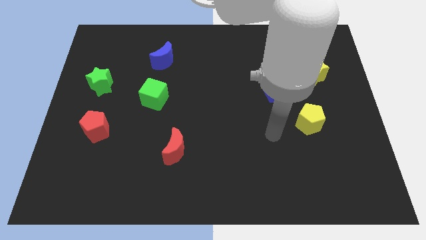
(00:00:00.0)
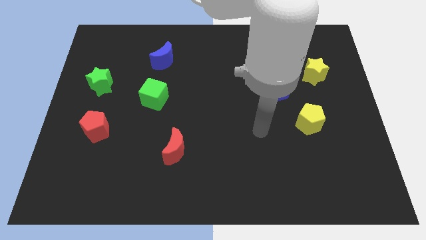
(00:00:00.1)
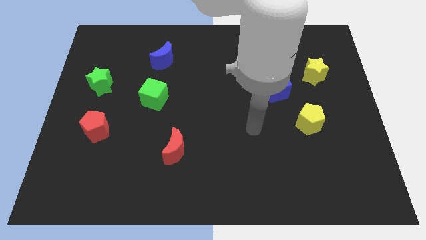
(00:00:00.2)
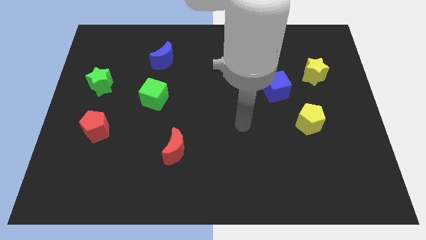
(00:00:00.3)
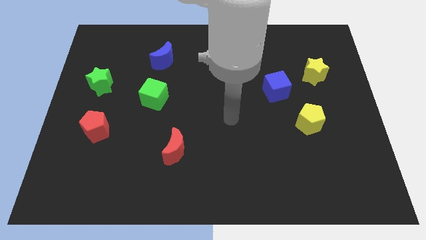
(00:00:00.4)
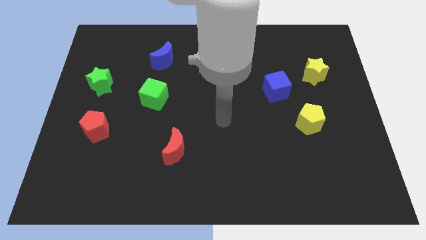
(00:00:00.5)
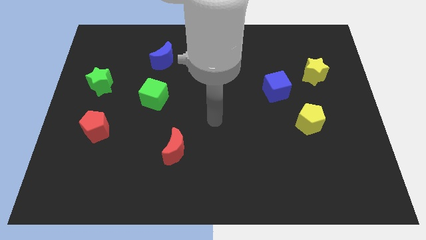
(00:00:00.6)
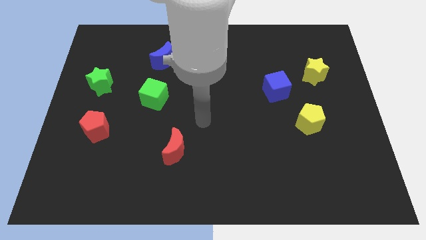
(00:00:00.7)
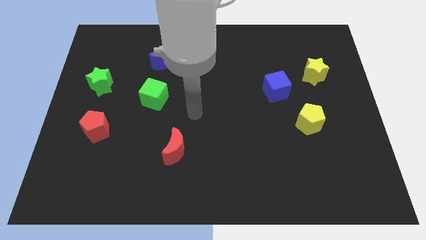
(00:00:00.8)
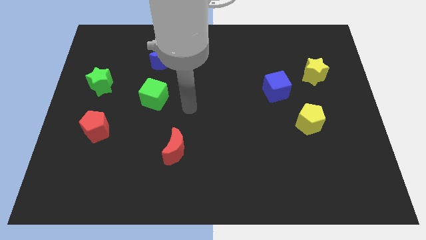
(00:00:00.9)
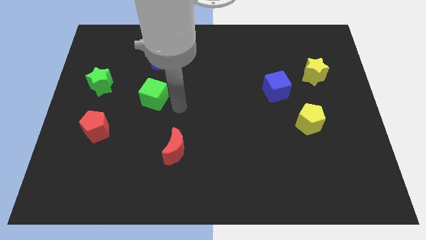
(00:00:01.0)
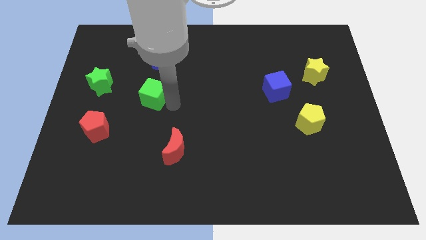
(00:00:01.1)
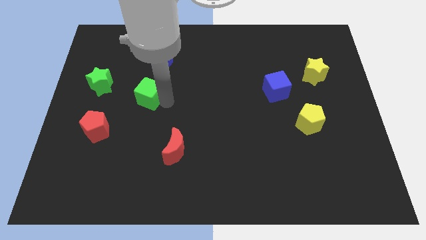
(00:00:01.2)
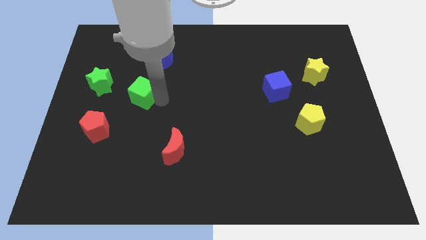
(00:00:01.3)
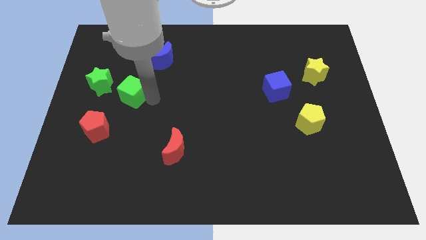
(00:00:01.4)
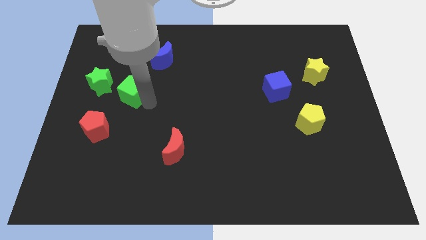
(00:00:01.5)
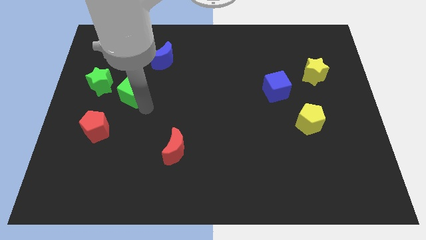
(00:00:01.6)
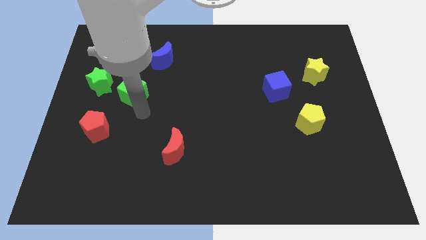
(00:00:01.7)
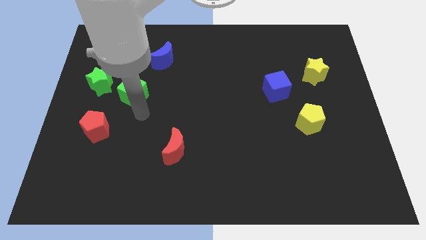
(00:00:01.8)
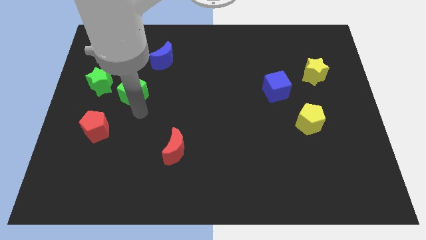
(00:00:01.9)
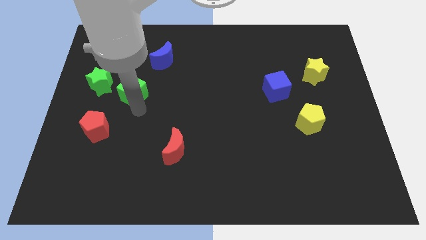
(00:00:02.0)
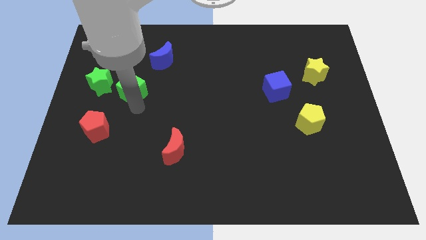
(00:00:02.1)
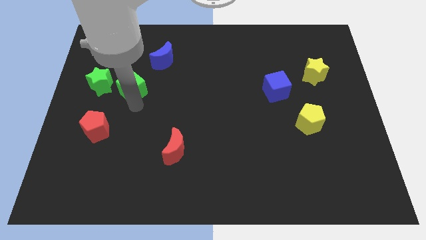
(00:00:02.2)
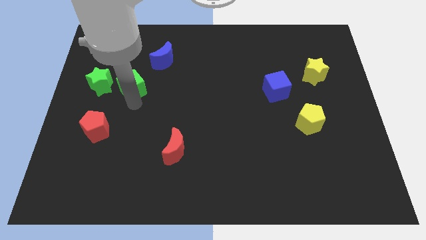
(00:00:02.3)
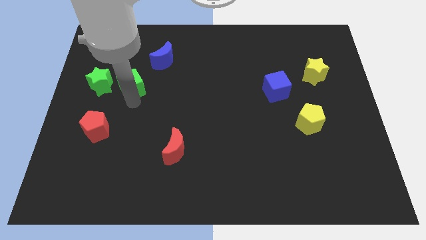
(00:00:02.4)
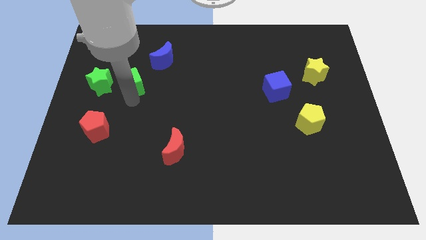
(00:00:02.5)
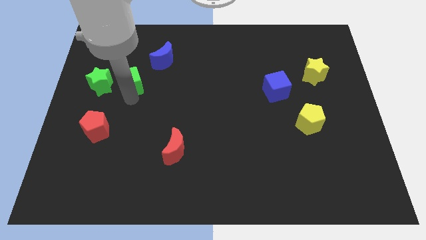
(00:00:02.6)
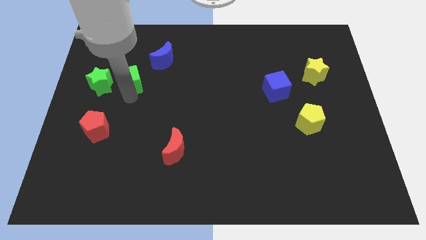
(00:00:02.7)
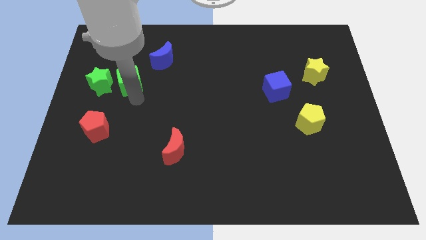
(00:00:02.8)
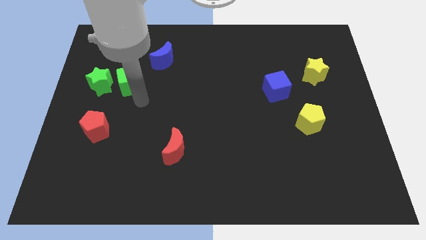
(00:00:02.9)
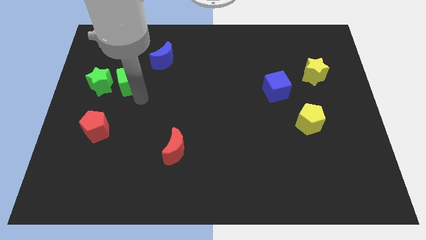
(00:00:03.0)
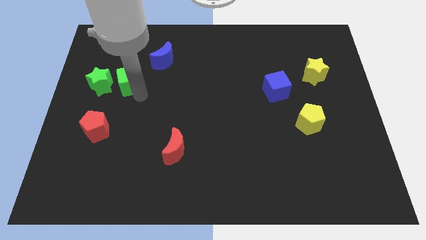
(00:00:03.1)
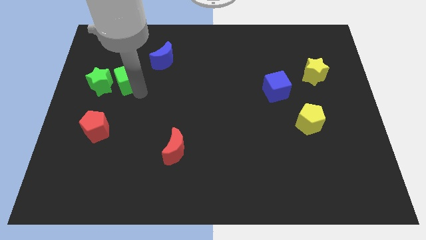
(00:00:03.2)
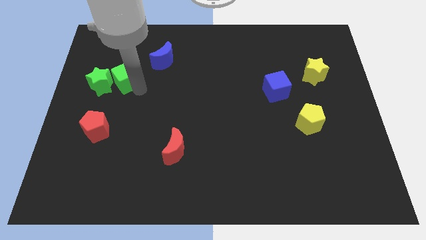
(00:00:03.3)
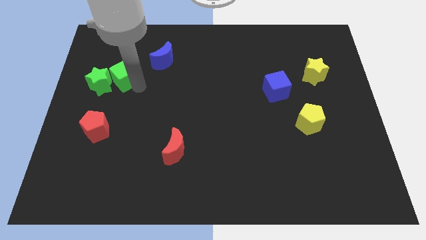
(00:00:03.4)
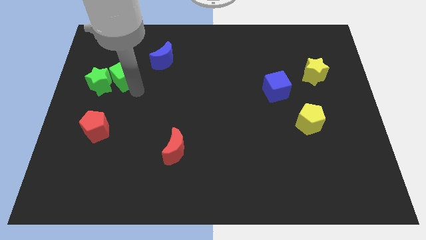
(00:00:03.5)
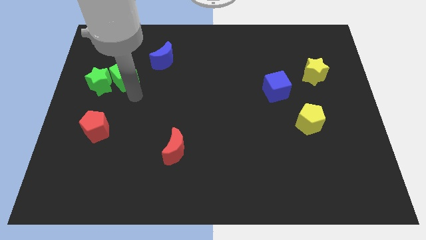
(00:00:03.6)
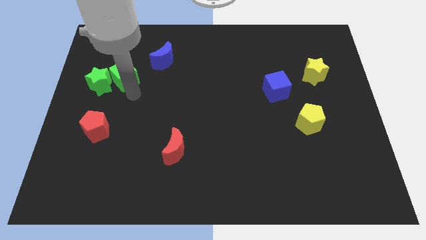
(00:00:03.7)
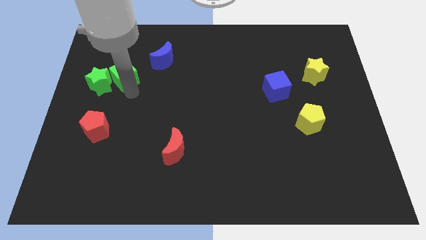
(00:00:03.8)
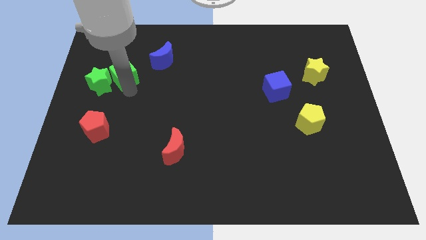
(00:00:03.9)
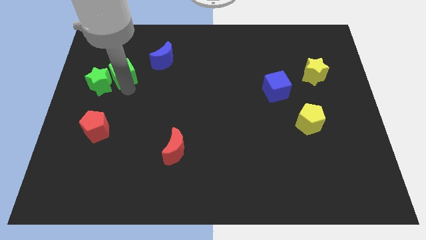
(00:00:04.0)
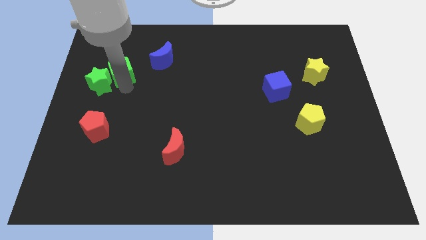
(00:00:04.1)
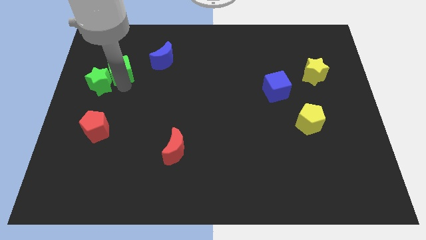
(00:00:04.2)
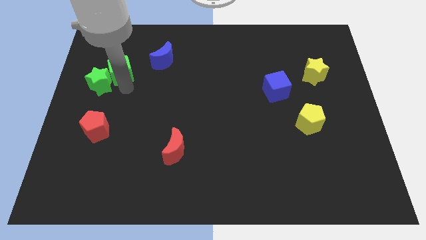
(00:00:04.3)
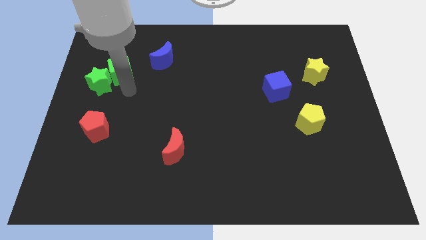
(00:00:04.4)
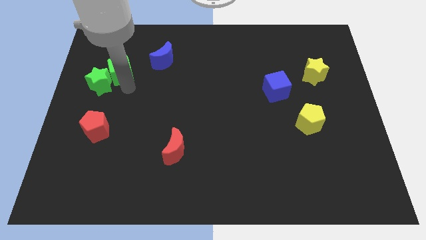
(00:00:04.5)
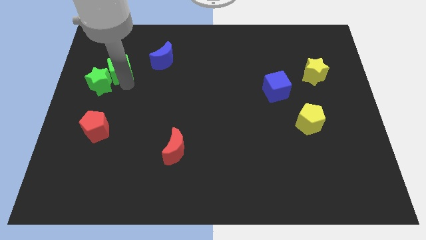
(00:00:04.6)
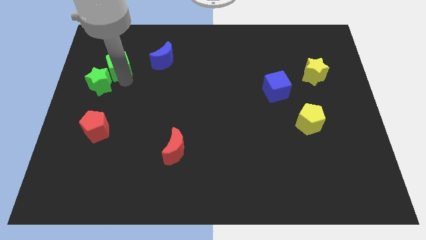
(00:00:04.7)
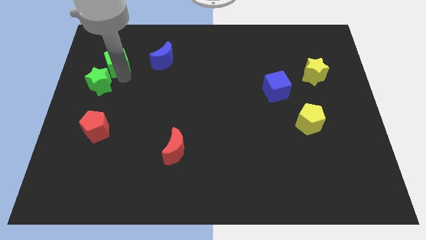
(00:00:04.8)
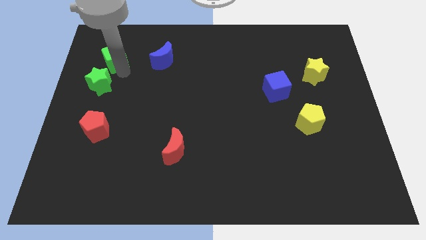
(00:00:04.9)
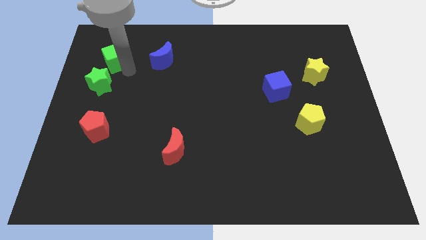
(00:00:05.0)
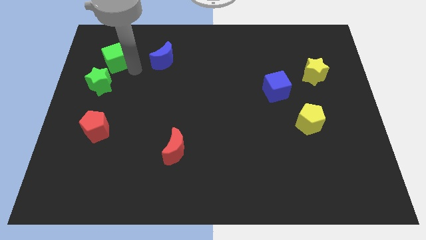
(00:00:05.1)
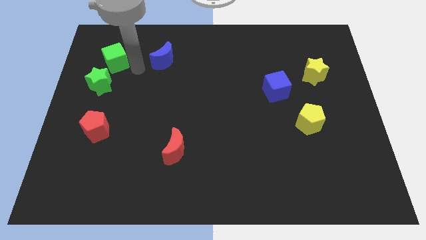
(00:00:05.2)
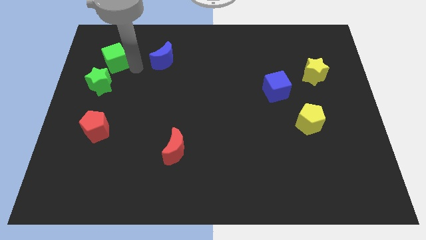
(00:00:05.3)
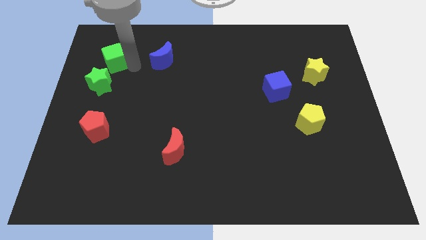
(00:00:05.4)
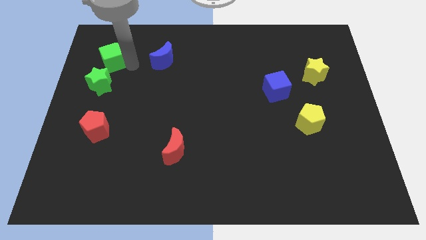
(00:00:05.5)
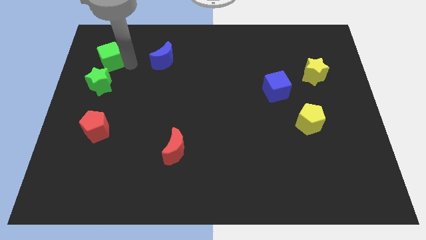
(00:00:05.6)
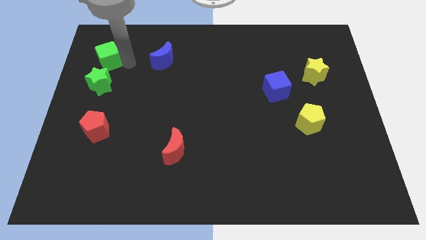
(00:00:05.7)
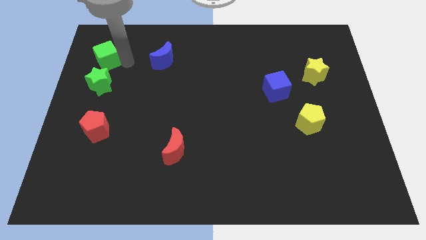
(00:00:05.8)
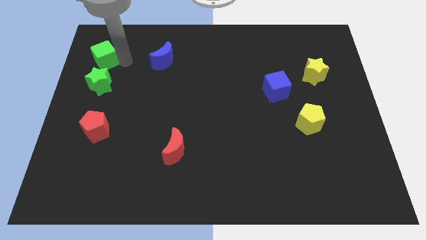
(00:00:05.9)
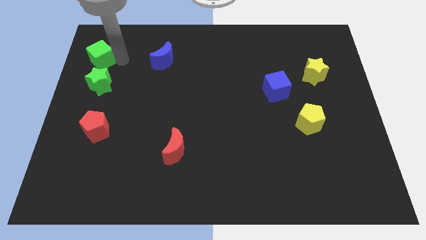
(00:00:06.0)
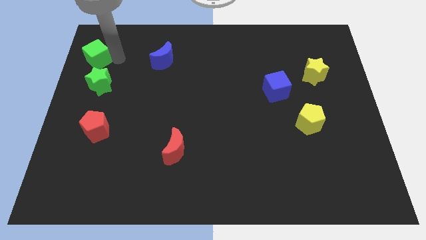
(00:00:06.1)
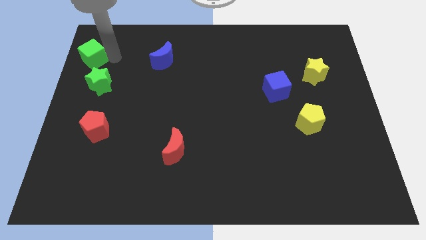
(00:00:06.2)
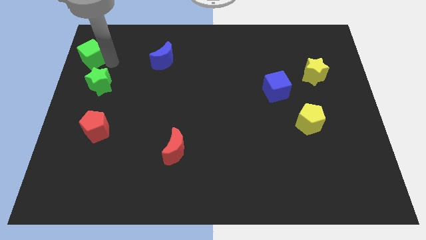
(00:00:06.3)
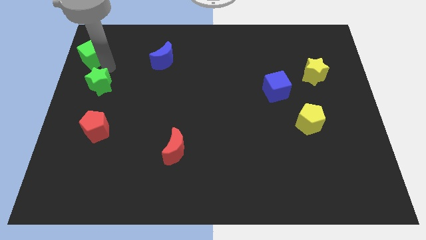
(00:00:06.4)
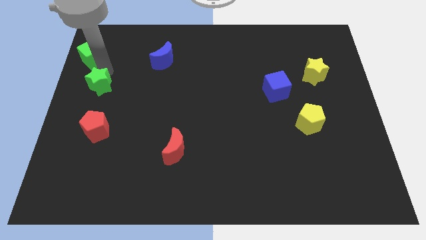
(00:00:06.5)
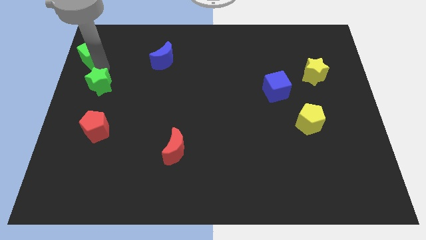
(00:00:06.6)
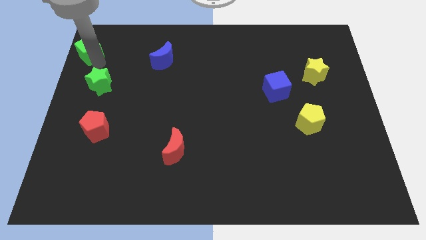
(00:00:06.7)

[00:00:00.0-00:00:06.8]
move the green cube to the top left of the board

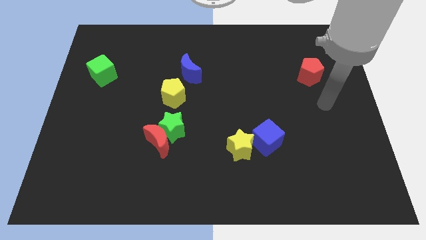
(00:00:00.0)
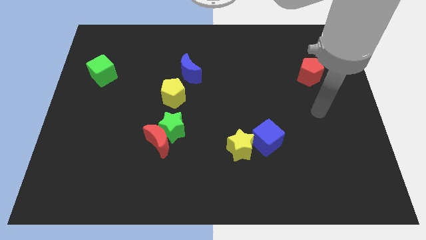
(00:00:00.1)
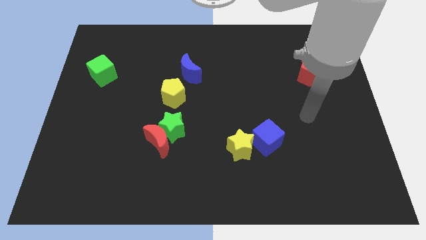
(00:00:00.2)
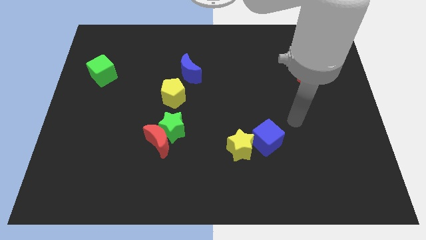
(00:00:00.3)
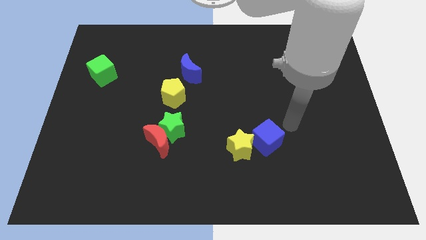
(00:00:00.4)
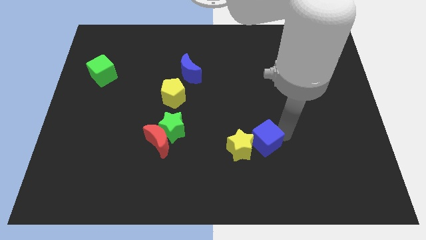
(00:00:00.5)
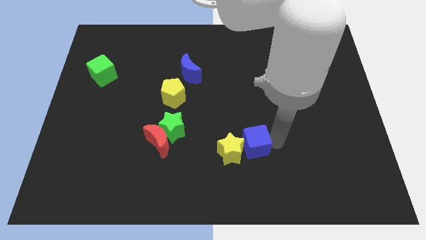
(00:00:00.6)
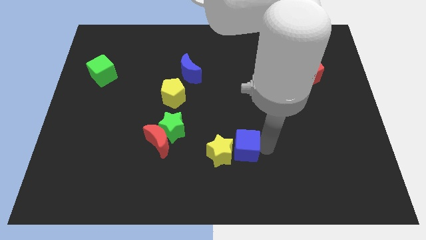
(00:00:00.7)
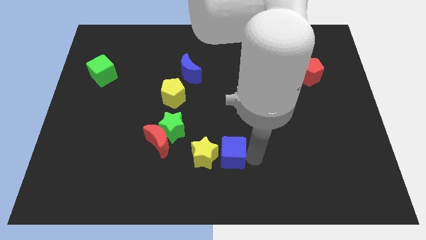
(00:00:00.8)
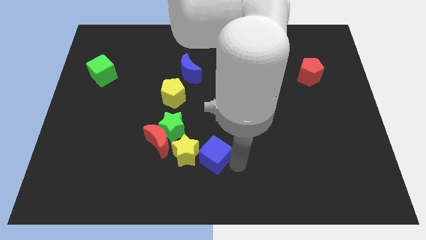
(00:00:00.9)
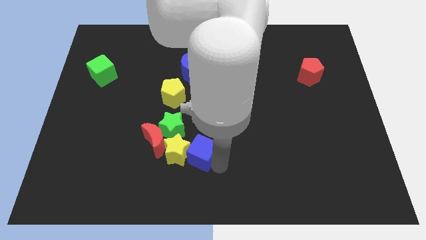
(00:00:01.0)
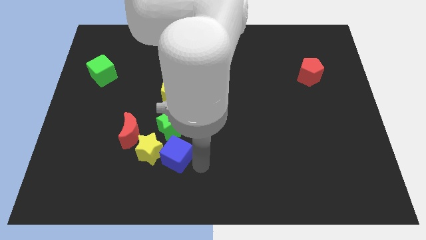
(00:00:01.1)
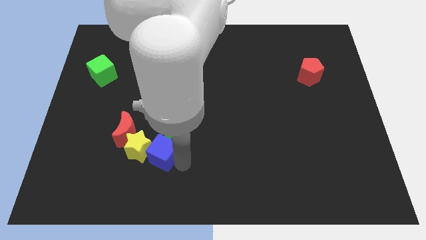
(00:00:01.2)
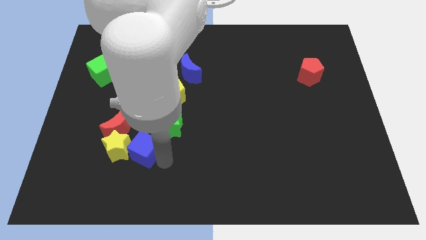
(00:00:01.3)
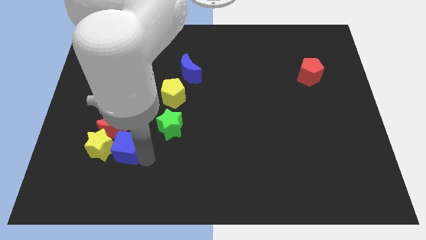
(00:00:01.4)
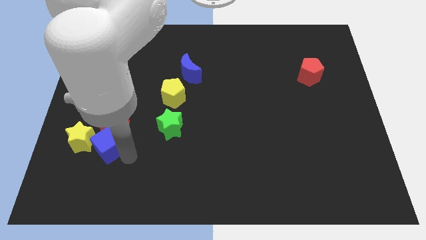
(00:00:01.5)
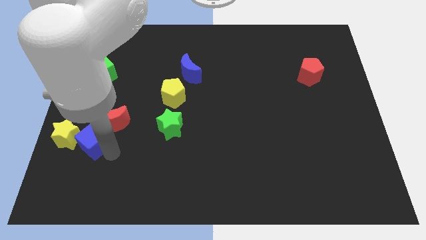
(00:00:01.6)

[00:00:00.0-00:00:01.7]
move the yellow star to the center left
